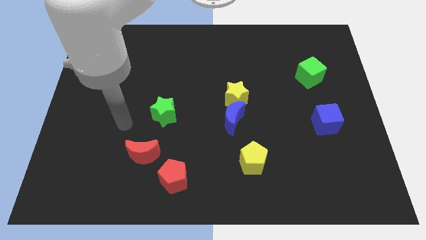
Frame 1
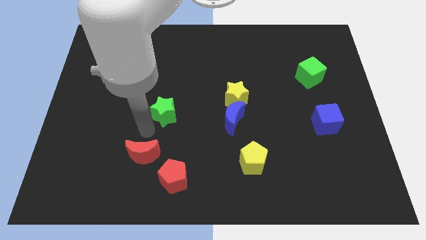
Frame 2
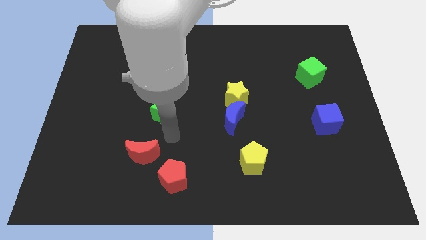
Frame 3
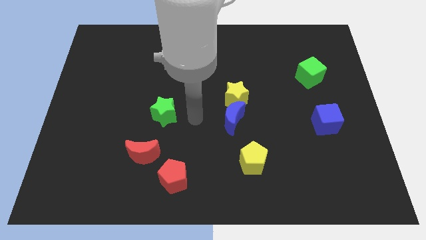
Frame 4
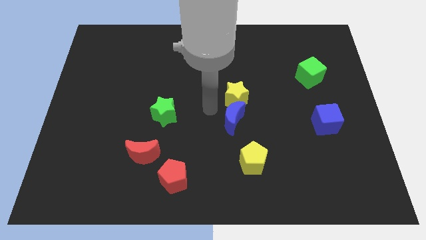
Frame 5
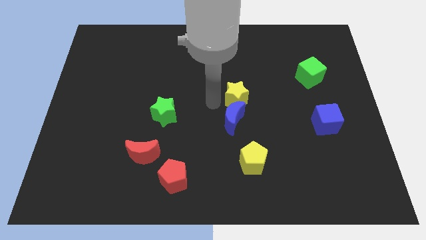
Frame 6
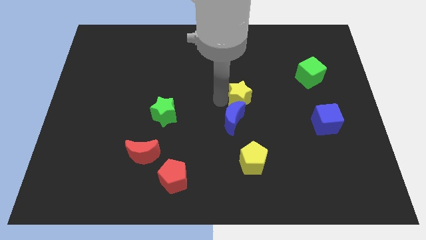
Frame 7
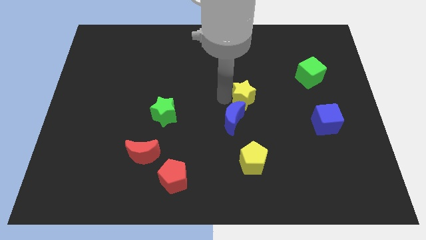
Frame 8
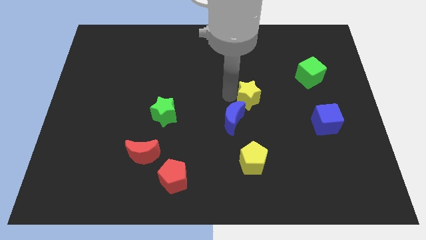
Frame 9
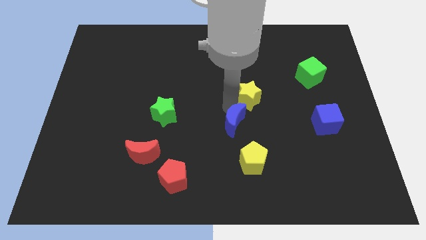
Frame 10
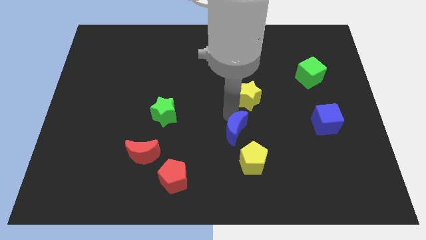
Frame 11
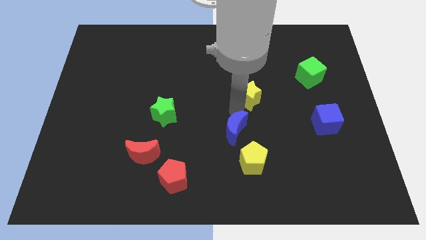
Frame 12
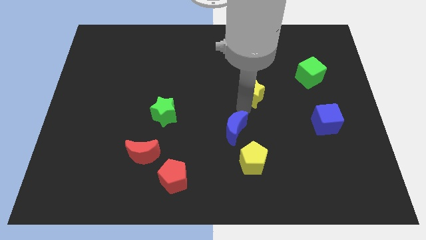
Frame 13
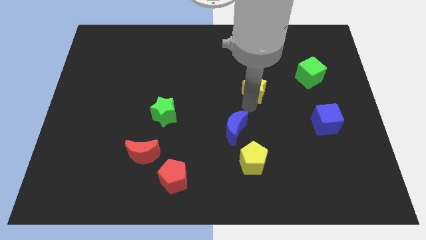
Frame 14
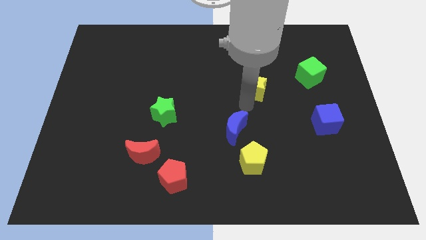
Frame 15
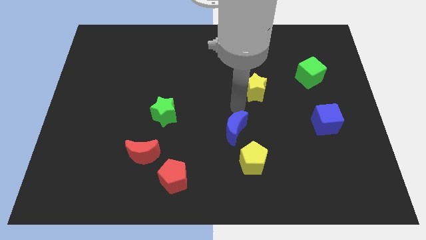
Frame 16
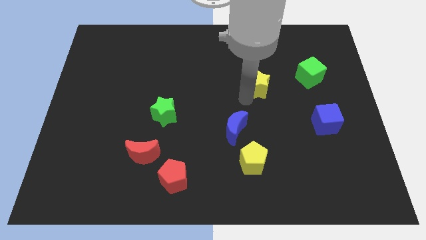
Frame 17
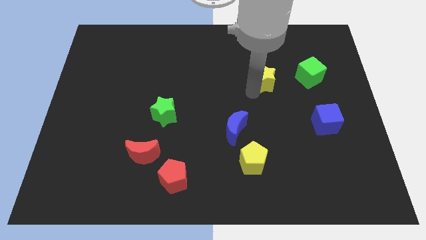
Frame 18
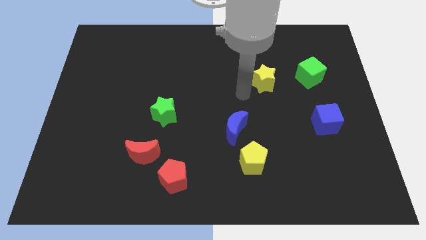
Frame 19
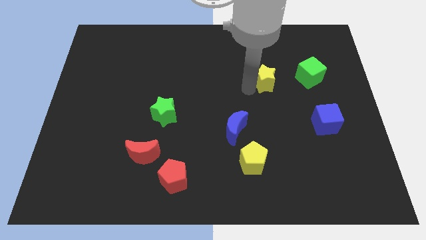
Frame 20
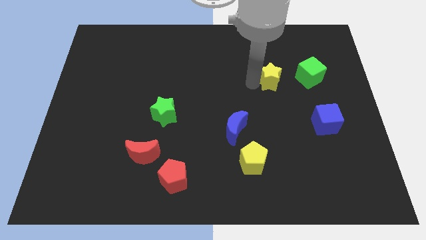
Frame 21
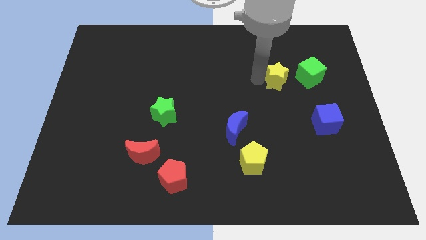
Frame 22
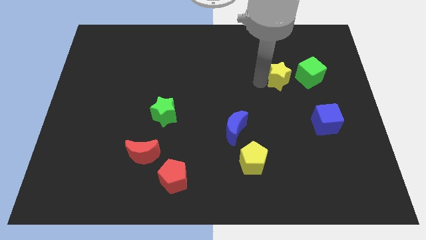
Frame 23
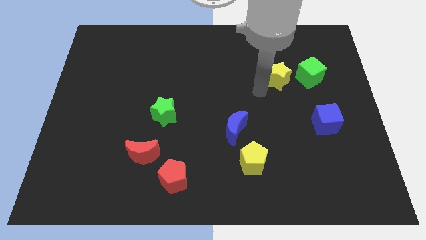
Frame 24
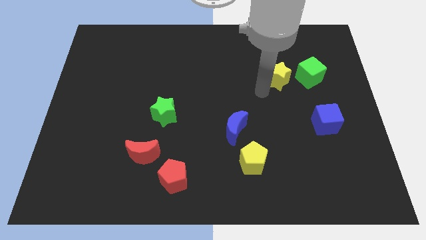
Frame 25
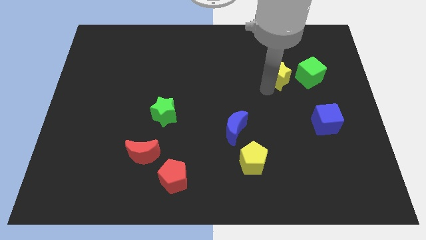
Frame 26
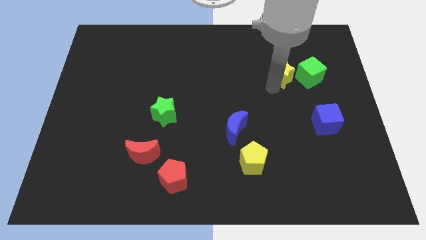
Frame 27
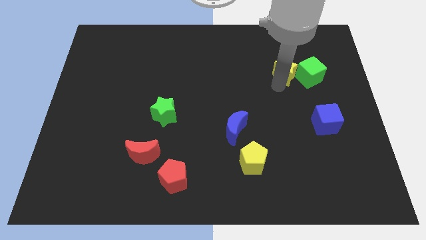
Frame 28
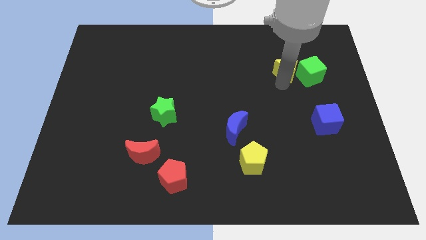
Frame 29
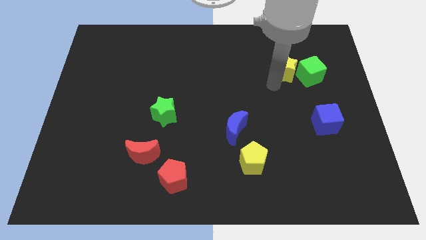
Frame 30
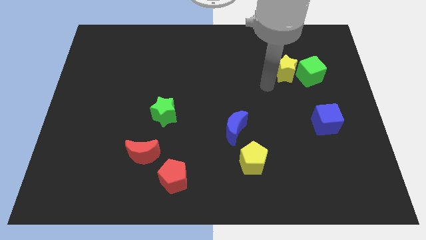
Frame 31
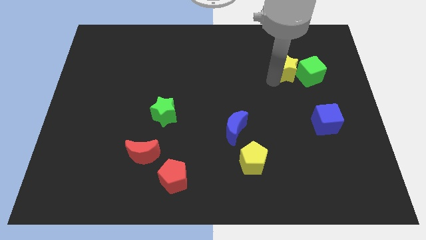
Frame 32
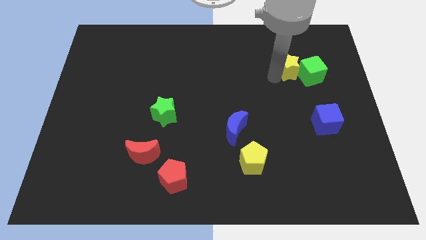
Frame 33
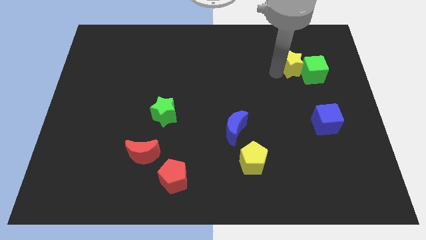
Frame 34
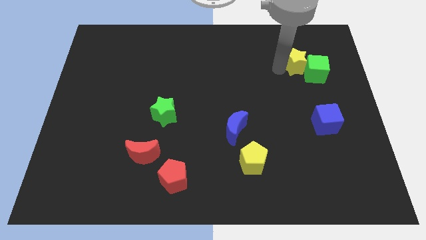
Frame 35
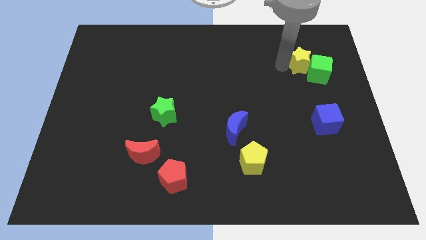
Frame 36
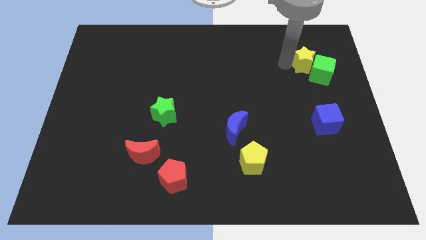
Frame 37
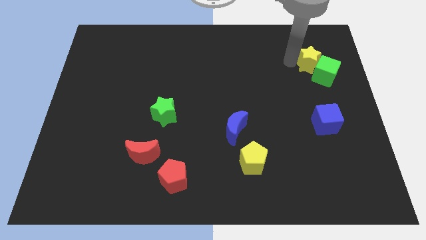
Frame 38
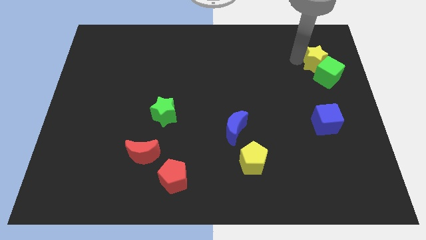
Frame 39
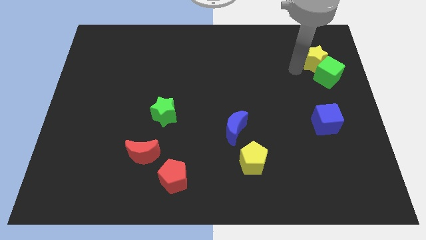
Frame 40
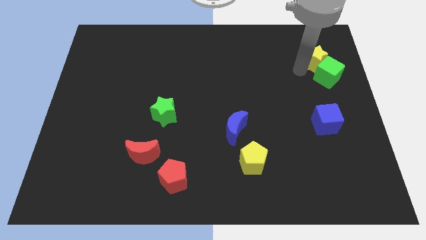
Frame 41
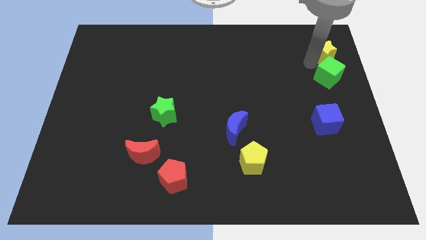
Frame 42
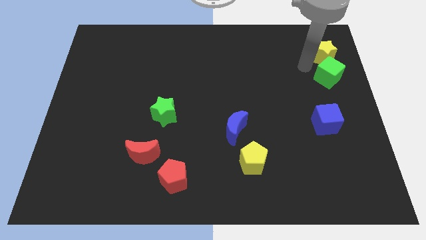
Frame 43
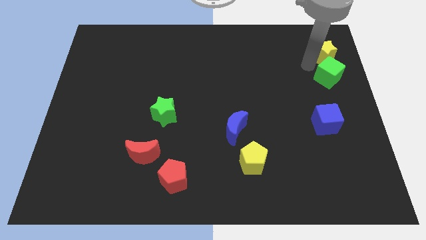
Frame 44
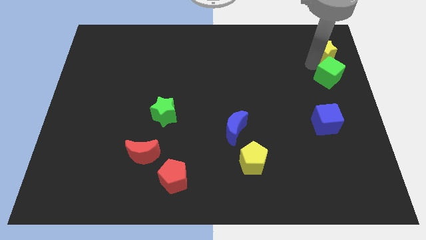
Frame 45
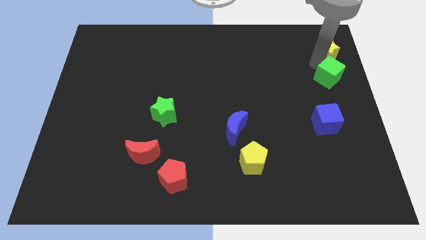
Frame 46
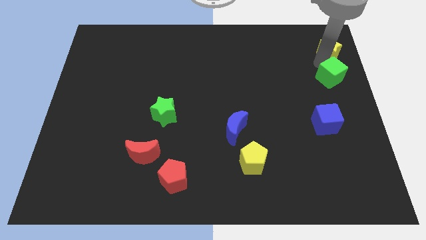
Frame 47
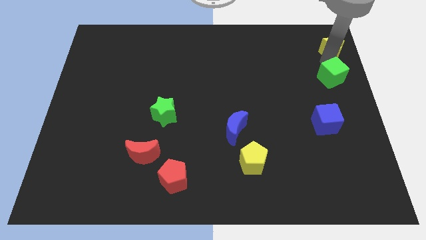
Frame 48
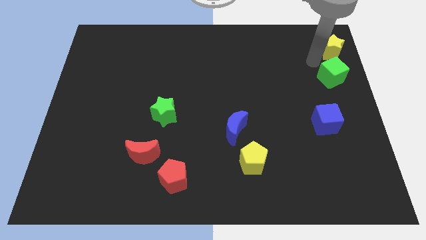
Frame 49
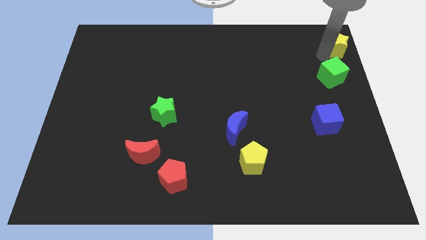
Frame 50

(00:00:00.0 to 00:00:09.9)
push the yellow star to the top right corner

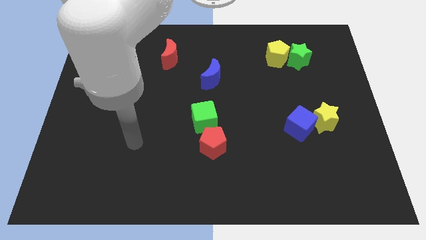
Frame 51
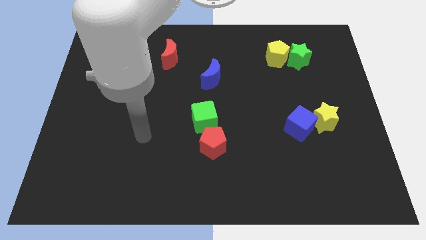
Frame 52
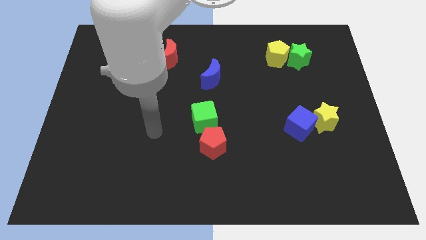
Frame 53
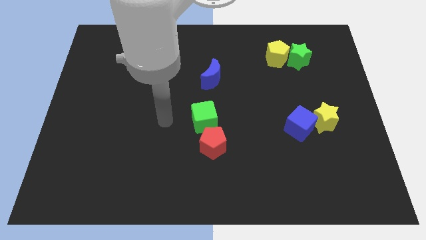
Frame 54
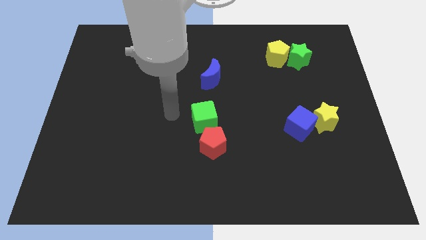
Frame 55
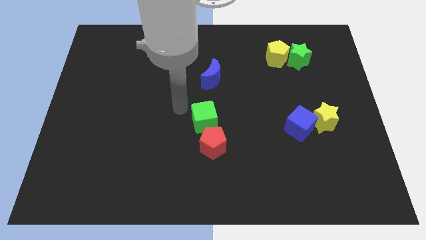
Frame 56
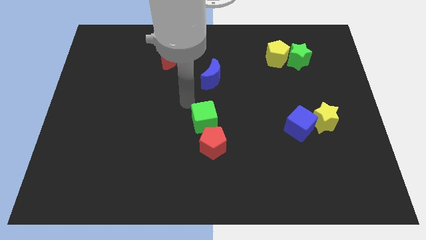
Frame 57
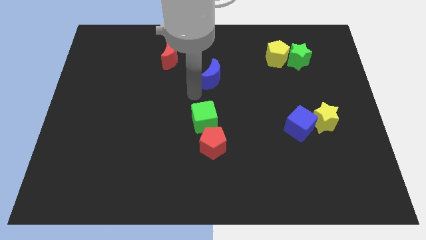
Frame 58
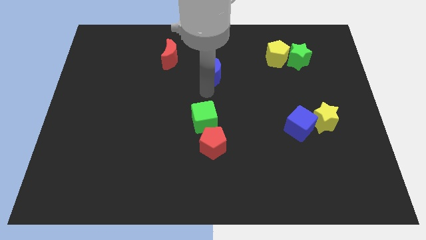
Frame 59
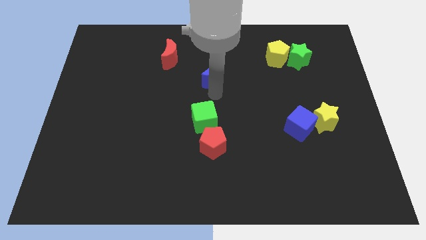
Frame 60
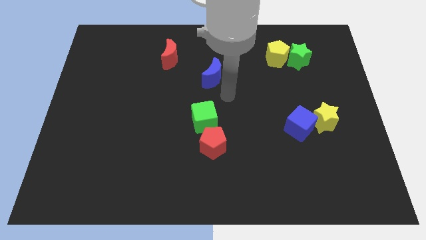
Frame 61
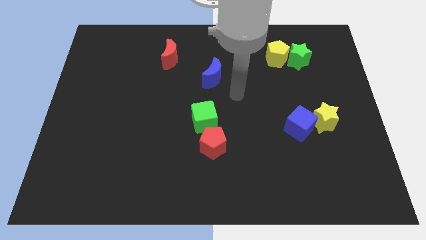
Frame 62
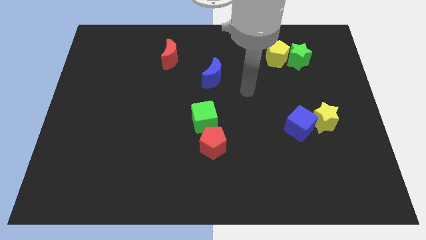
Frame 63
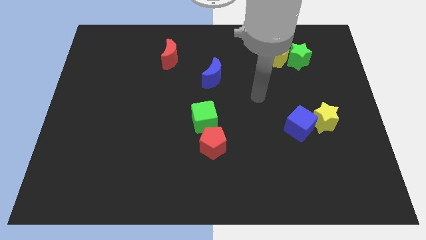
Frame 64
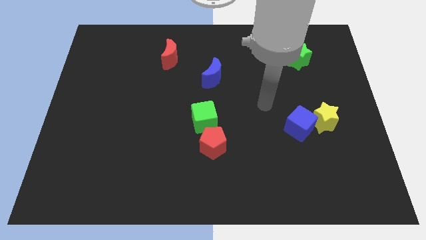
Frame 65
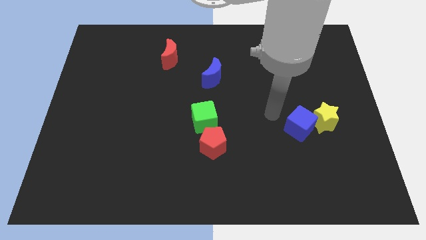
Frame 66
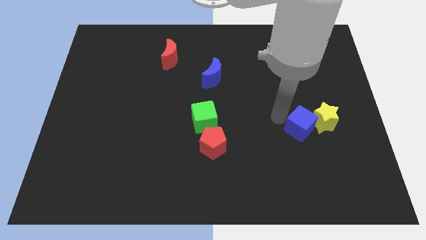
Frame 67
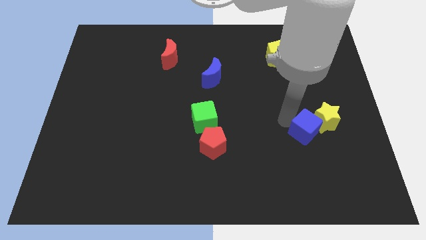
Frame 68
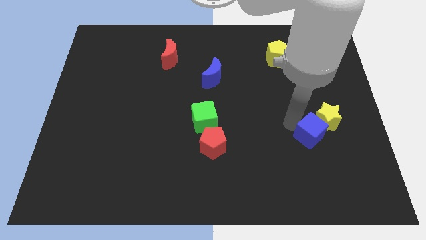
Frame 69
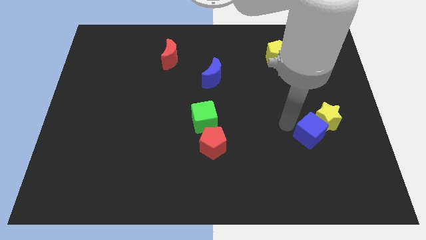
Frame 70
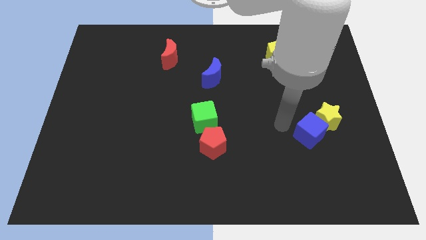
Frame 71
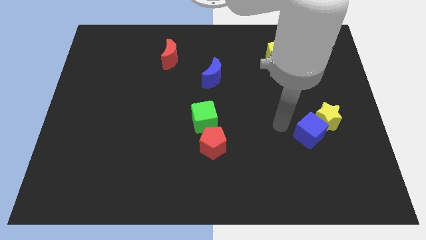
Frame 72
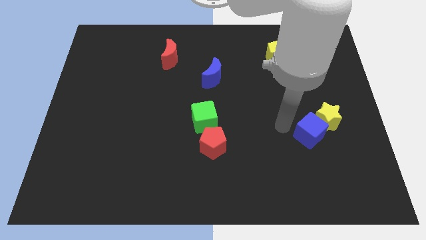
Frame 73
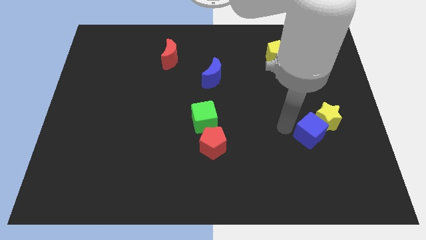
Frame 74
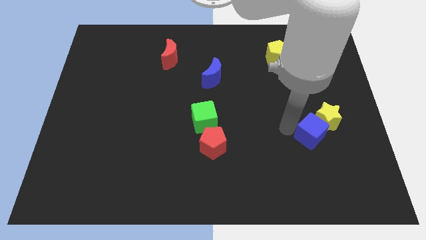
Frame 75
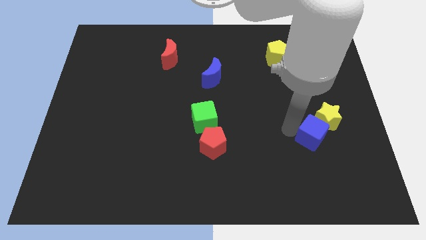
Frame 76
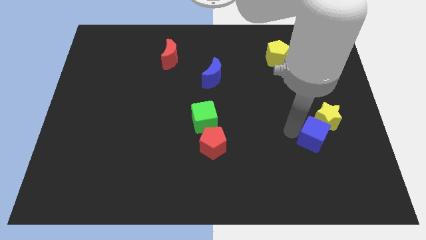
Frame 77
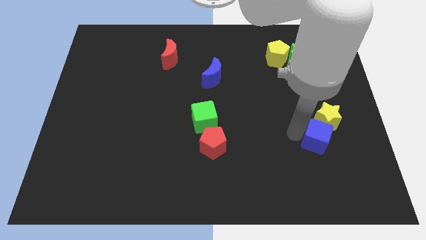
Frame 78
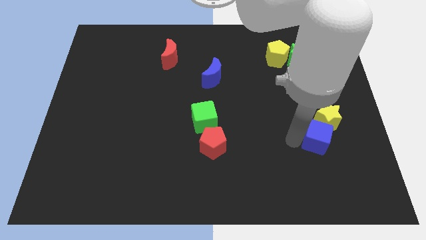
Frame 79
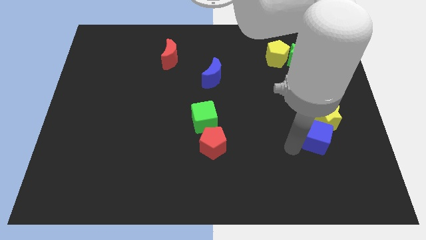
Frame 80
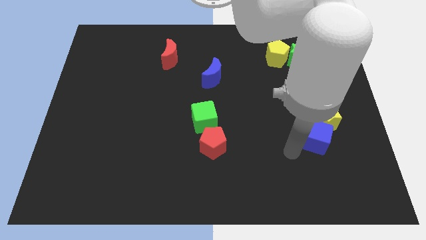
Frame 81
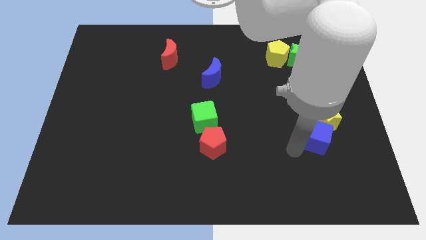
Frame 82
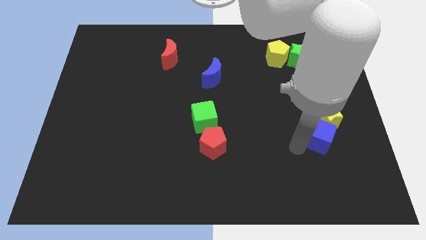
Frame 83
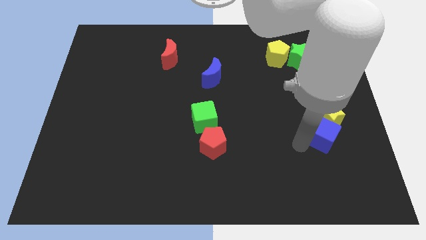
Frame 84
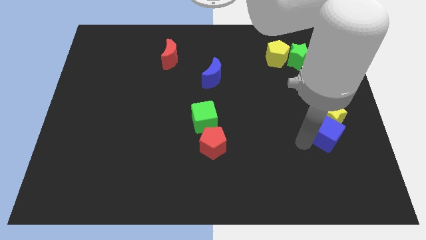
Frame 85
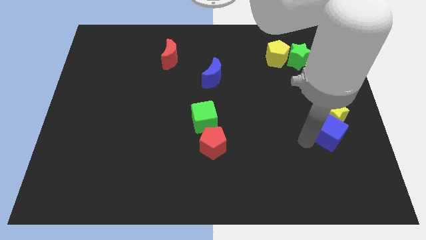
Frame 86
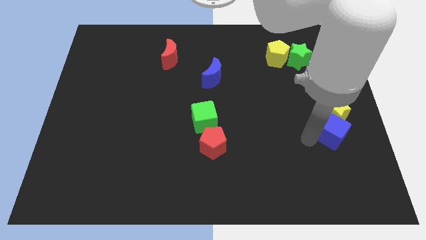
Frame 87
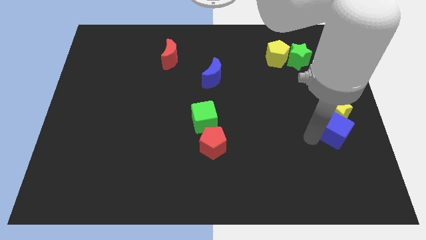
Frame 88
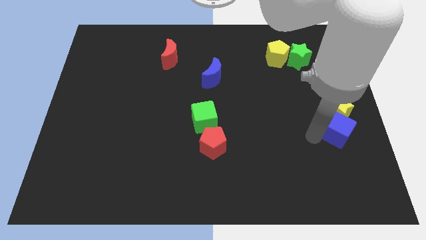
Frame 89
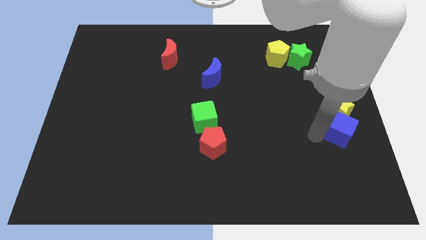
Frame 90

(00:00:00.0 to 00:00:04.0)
push the blue cube to the right side of the board
